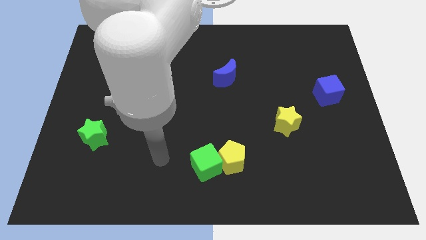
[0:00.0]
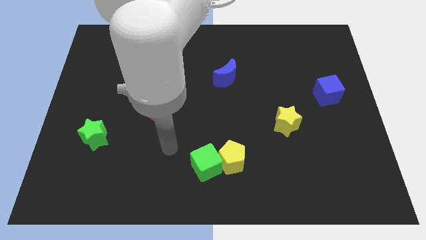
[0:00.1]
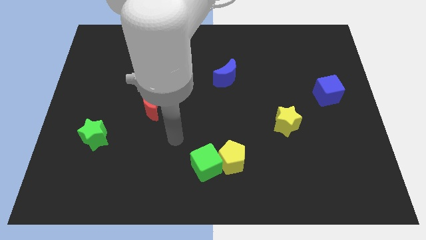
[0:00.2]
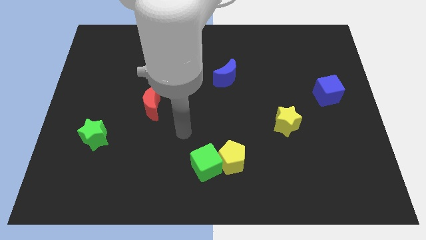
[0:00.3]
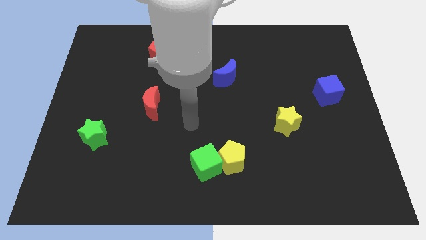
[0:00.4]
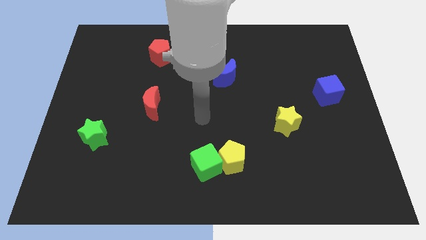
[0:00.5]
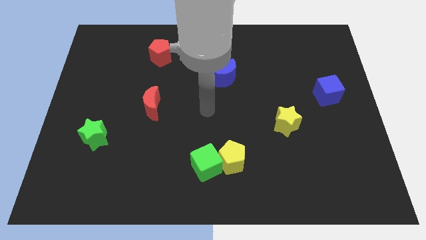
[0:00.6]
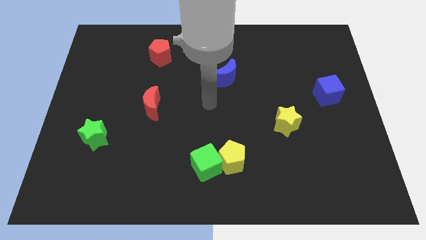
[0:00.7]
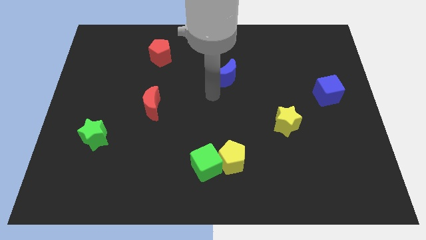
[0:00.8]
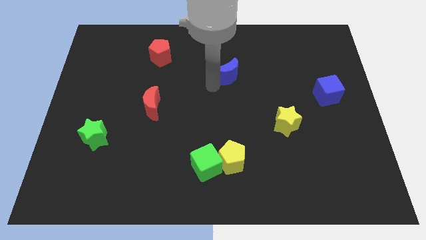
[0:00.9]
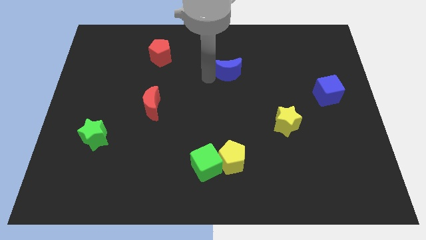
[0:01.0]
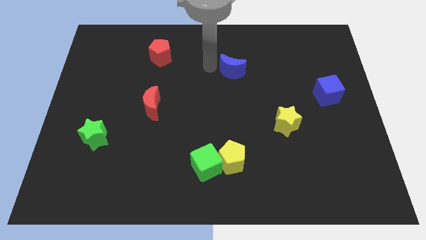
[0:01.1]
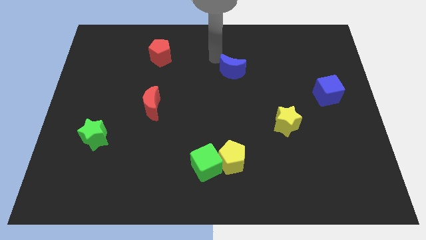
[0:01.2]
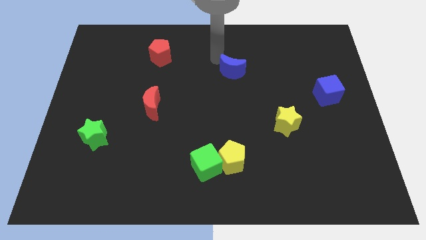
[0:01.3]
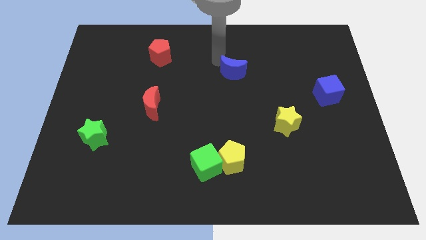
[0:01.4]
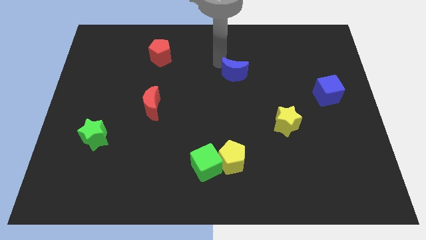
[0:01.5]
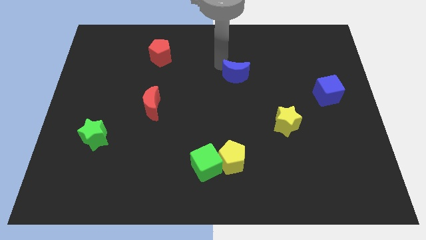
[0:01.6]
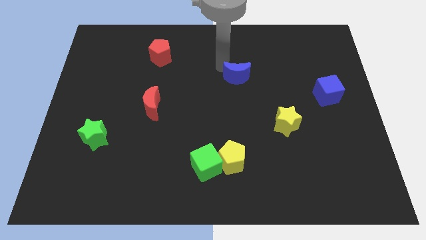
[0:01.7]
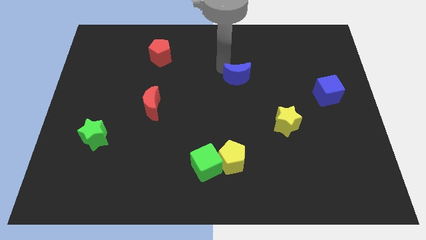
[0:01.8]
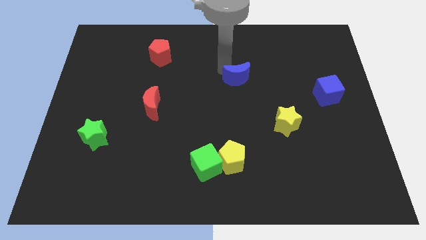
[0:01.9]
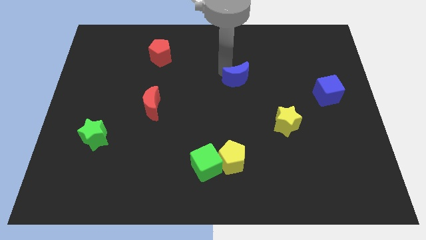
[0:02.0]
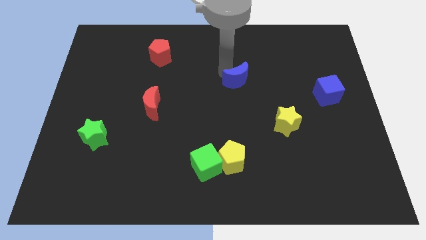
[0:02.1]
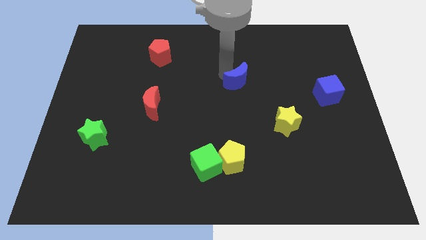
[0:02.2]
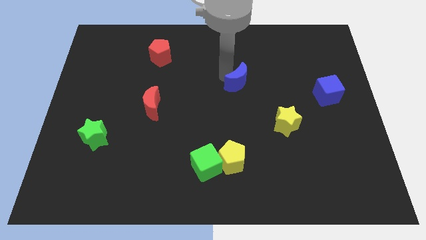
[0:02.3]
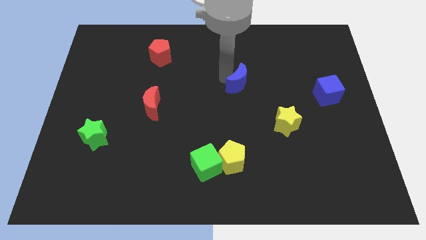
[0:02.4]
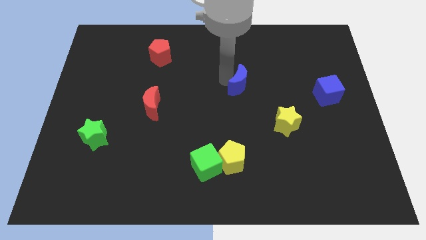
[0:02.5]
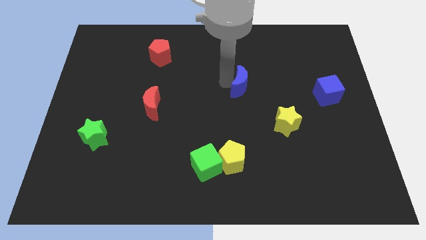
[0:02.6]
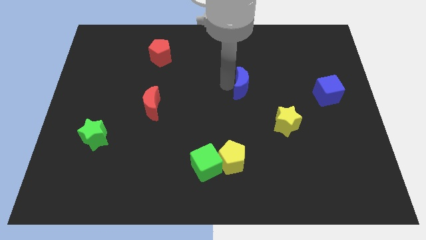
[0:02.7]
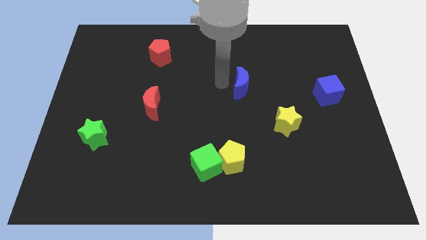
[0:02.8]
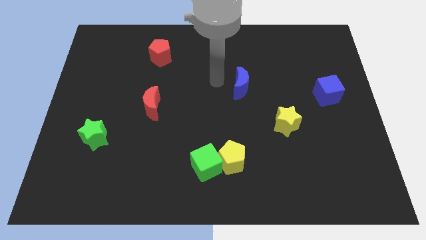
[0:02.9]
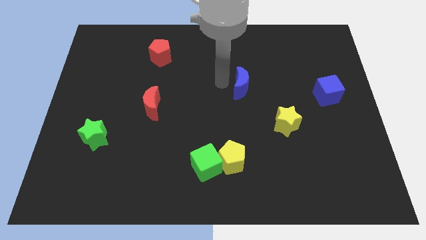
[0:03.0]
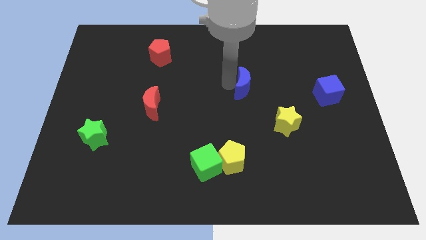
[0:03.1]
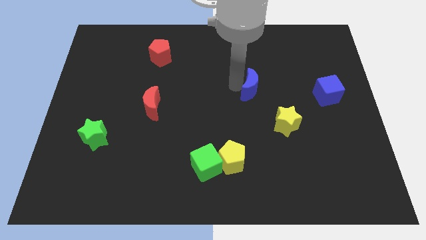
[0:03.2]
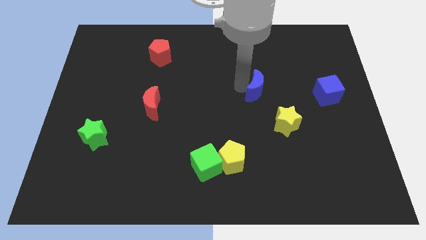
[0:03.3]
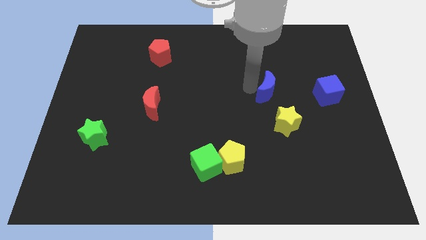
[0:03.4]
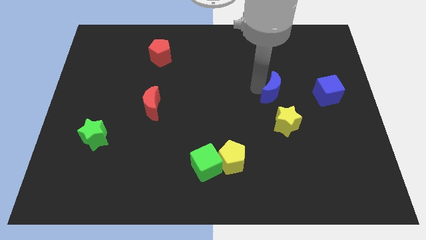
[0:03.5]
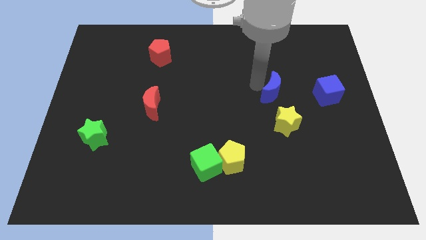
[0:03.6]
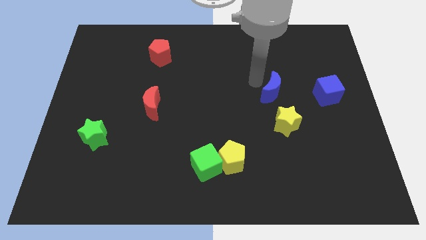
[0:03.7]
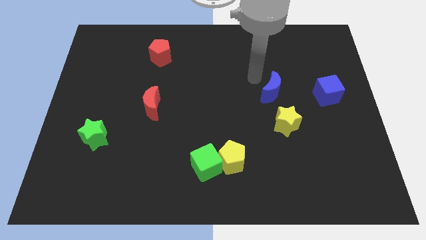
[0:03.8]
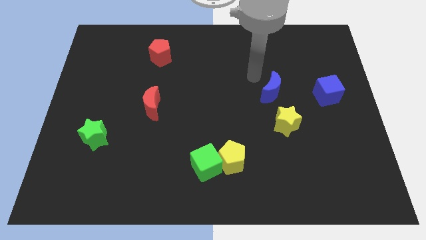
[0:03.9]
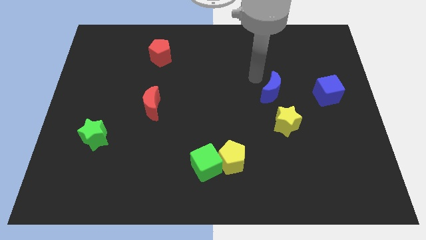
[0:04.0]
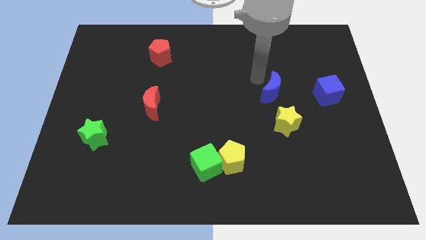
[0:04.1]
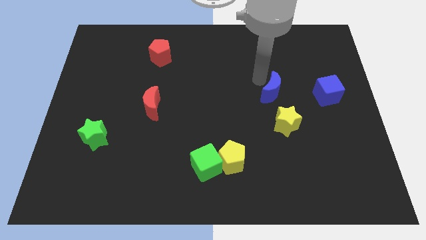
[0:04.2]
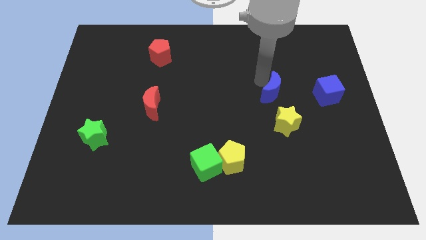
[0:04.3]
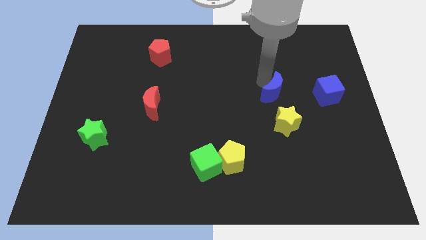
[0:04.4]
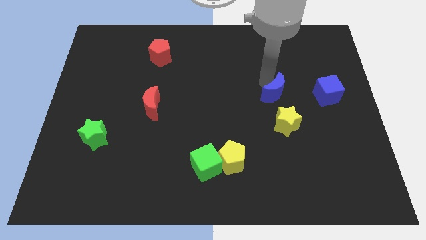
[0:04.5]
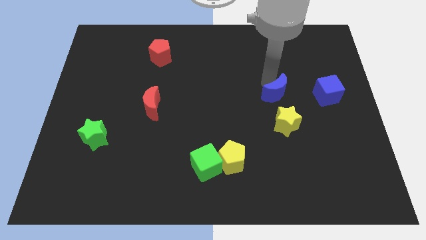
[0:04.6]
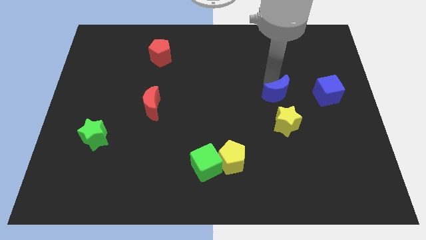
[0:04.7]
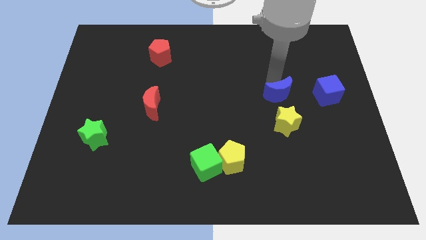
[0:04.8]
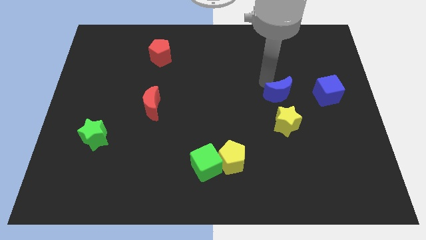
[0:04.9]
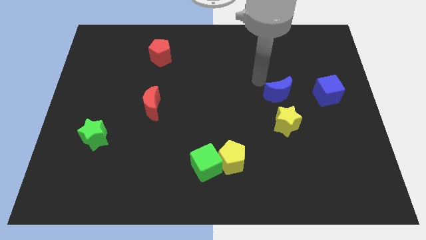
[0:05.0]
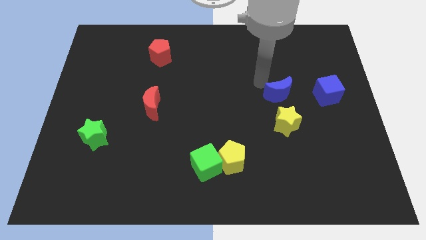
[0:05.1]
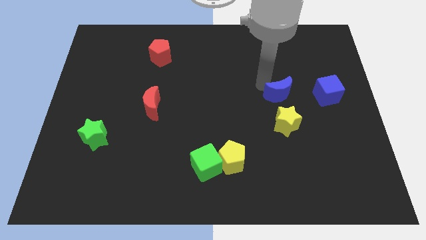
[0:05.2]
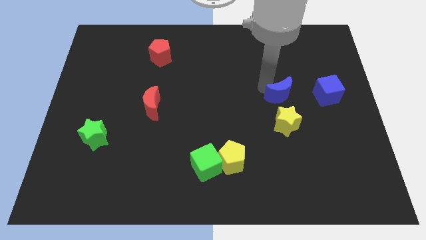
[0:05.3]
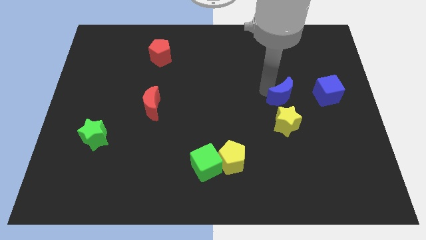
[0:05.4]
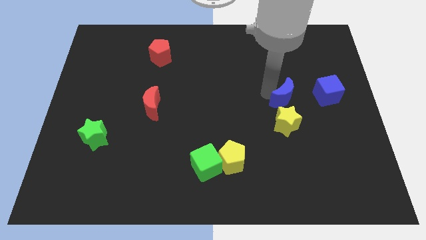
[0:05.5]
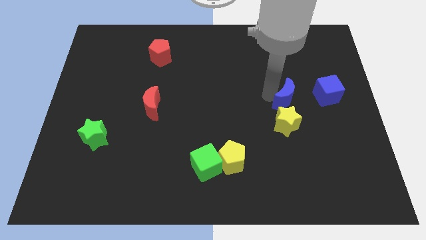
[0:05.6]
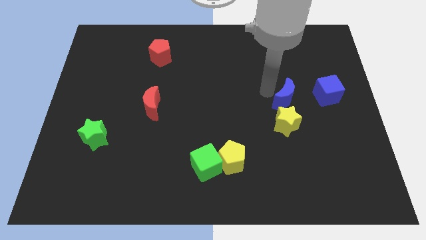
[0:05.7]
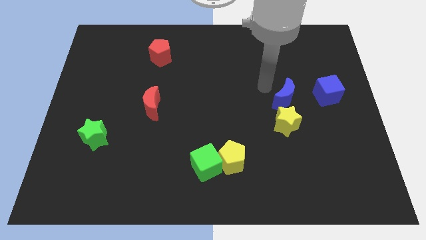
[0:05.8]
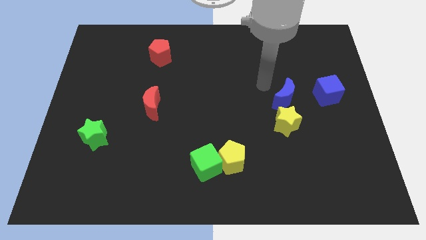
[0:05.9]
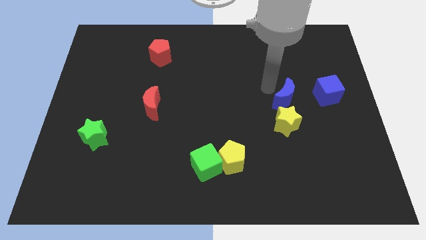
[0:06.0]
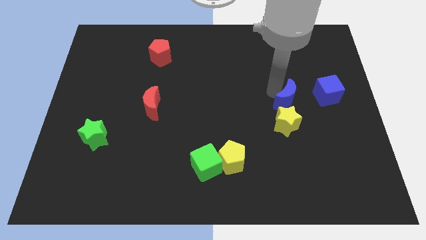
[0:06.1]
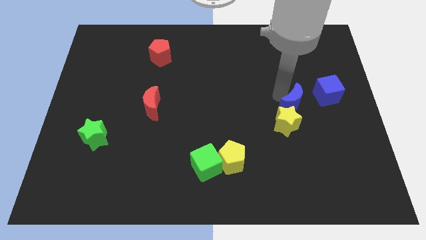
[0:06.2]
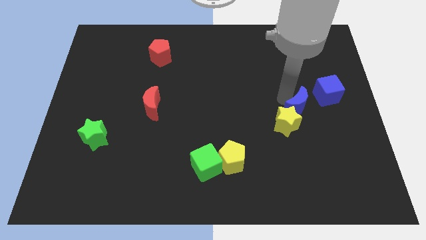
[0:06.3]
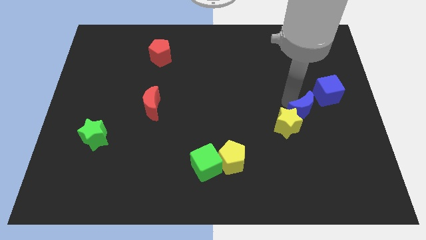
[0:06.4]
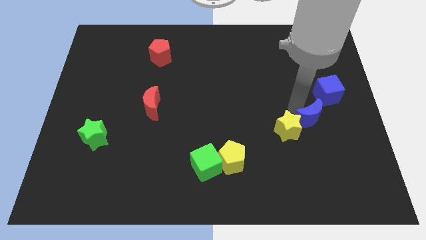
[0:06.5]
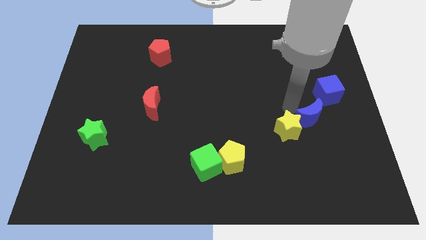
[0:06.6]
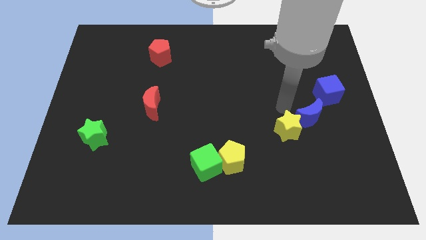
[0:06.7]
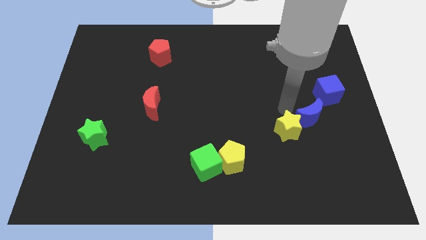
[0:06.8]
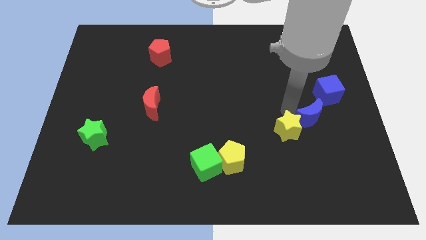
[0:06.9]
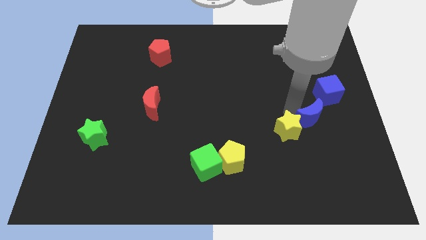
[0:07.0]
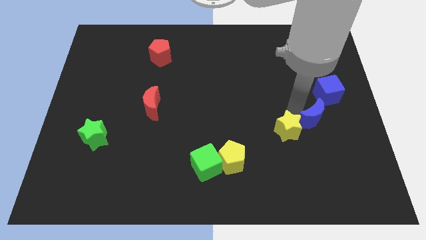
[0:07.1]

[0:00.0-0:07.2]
put the blue moon below the blue cube
